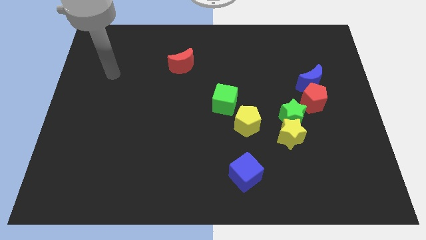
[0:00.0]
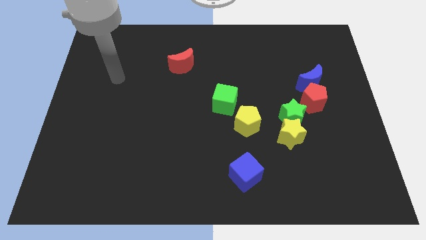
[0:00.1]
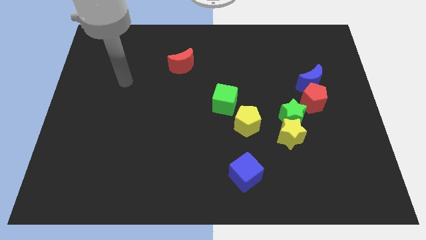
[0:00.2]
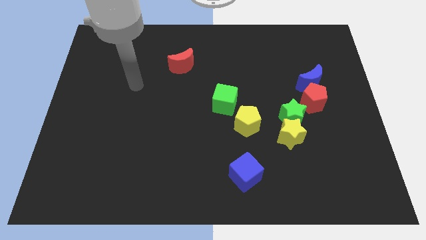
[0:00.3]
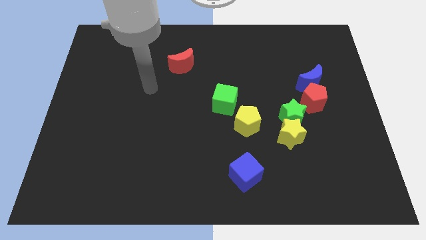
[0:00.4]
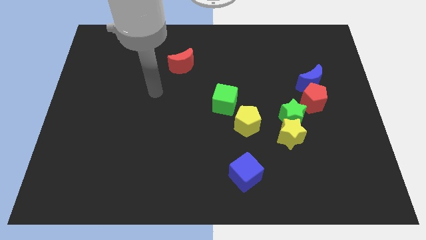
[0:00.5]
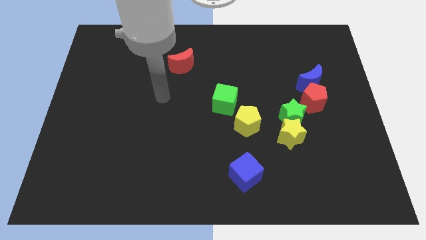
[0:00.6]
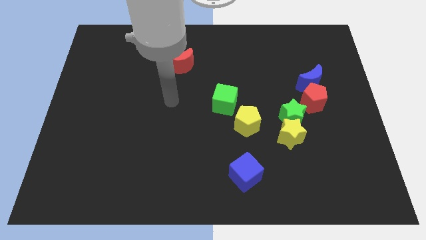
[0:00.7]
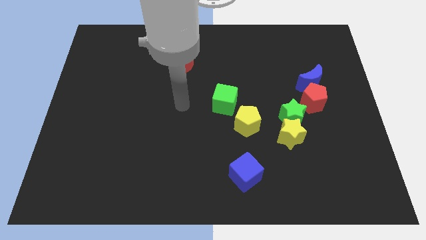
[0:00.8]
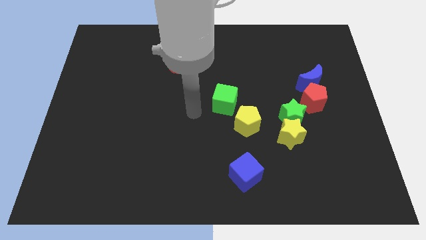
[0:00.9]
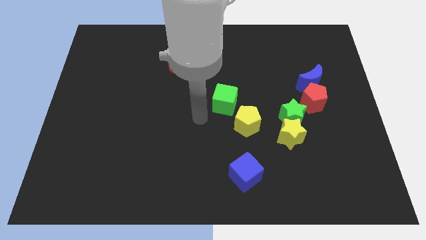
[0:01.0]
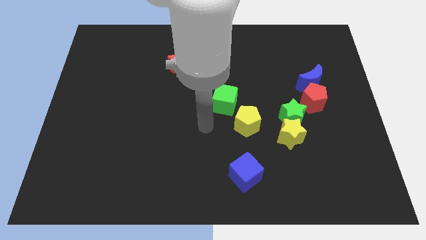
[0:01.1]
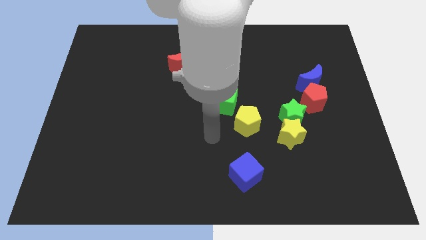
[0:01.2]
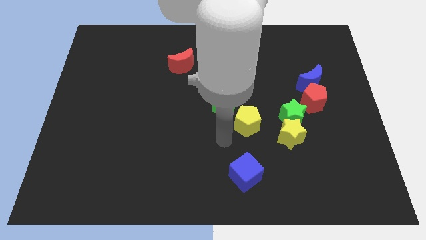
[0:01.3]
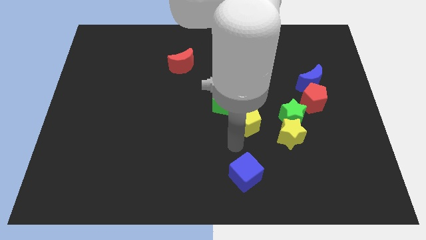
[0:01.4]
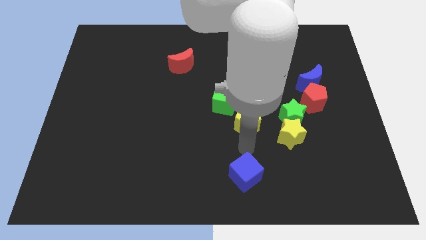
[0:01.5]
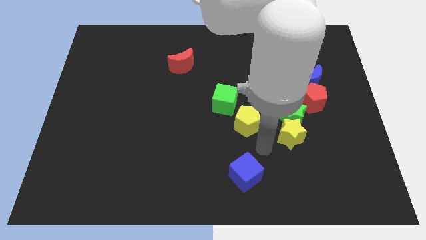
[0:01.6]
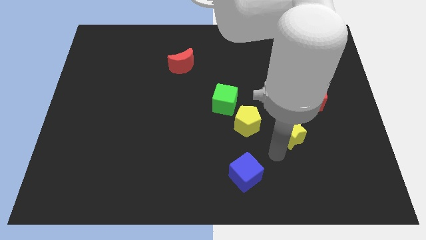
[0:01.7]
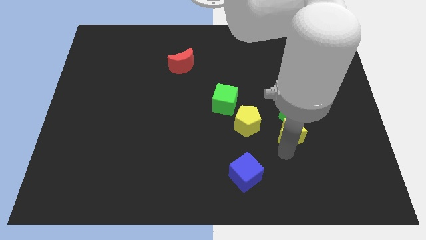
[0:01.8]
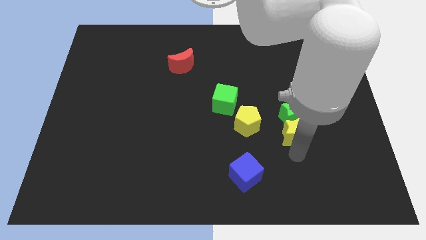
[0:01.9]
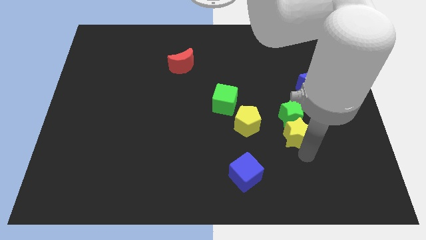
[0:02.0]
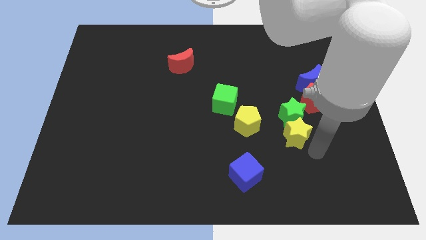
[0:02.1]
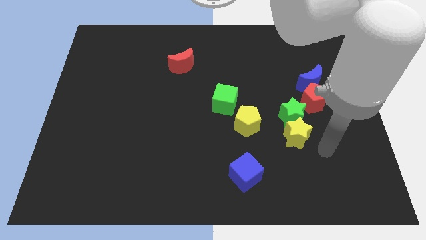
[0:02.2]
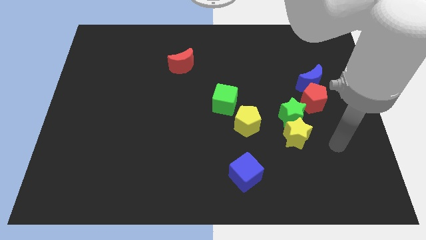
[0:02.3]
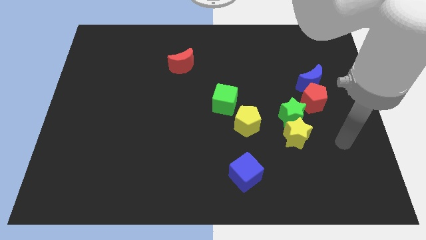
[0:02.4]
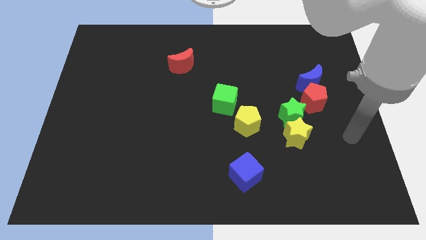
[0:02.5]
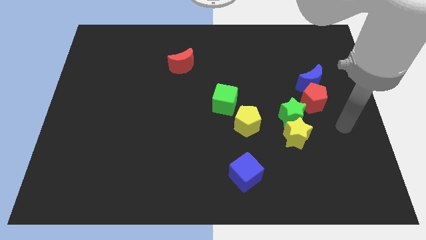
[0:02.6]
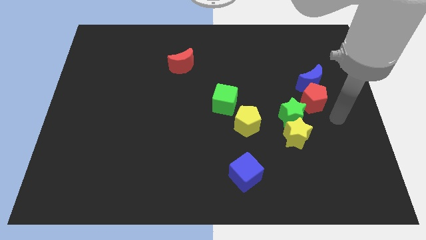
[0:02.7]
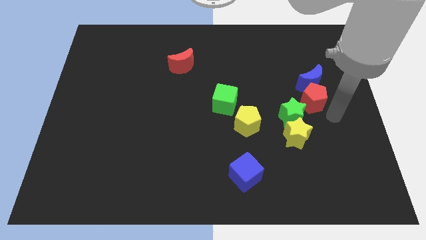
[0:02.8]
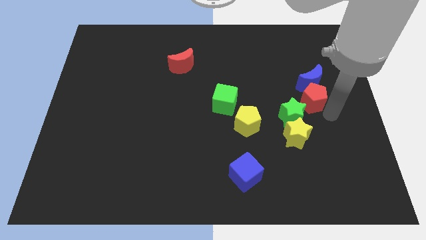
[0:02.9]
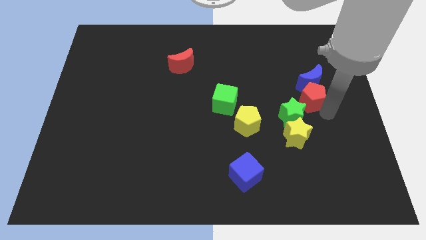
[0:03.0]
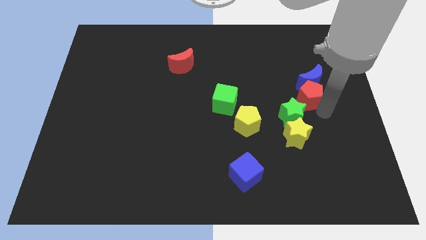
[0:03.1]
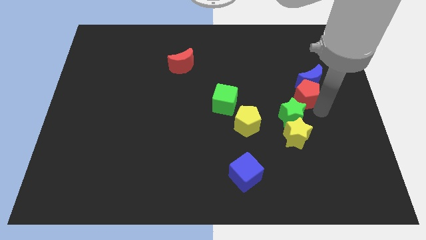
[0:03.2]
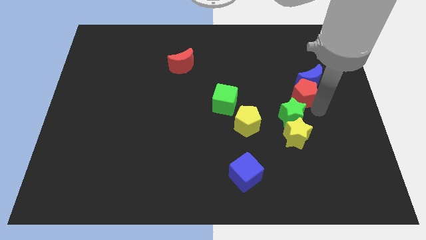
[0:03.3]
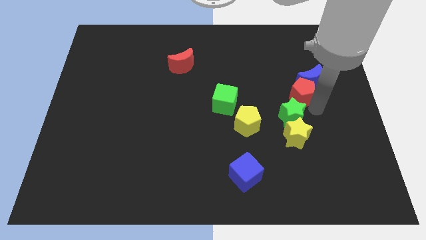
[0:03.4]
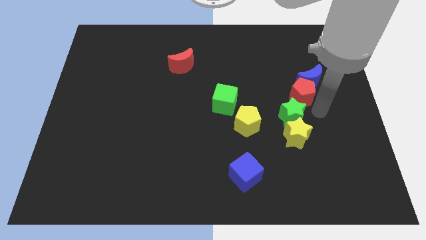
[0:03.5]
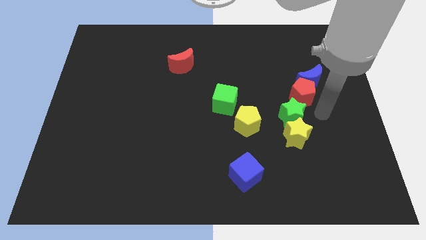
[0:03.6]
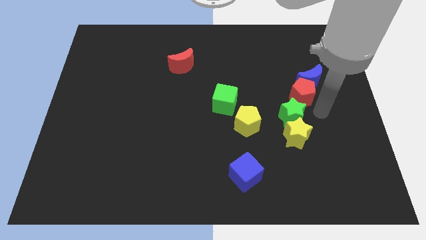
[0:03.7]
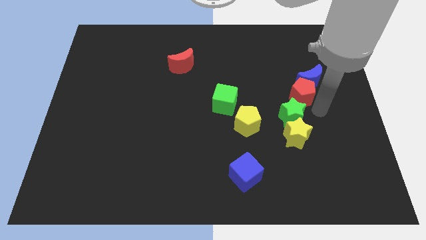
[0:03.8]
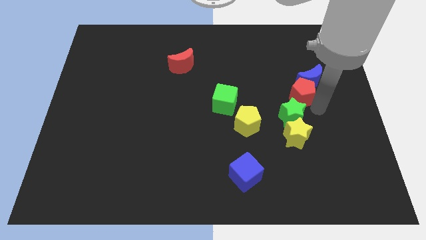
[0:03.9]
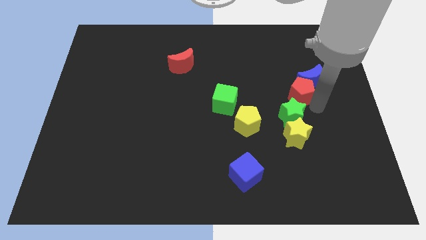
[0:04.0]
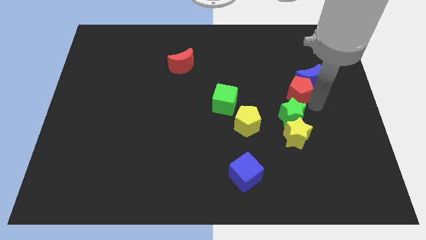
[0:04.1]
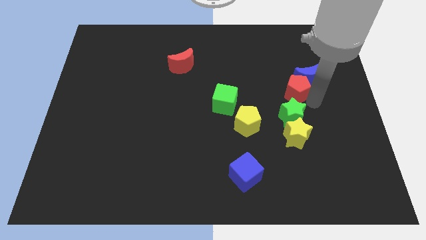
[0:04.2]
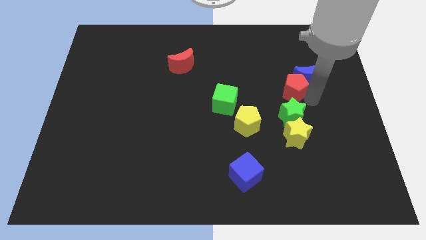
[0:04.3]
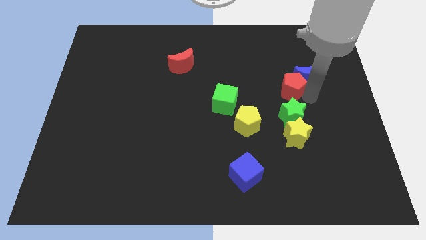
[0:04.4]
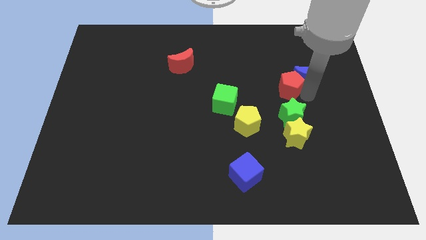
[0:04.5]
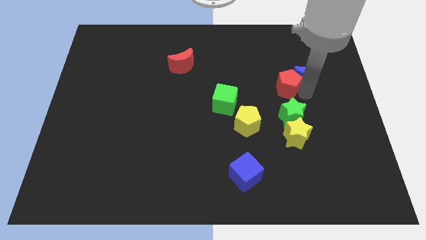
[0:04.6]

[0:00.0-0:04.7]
slightly slide the red pentagon up and left

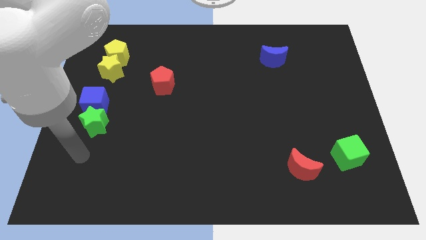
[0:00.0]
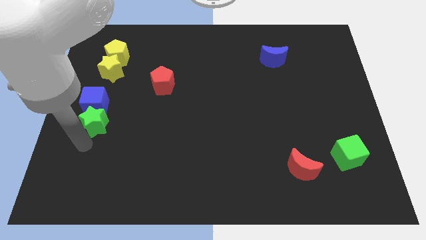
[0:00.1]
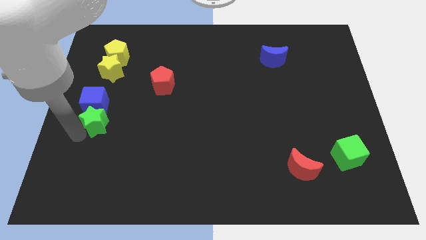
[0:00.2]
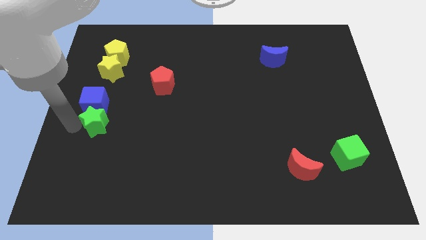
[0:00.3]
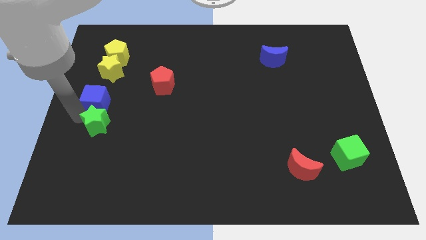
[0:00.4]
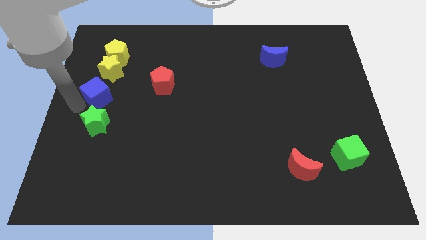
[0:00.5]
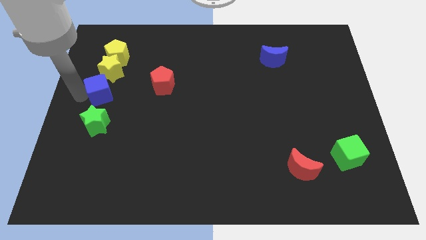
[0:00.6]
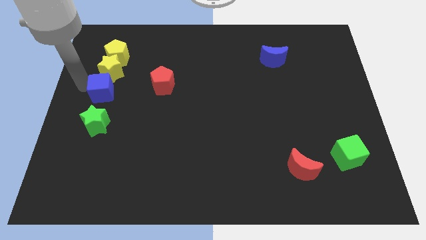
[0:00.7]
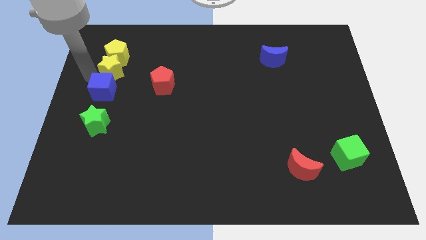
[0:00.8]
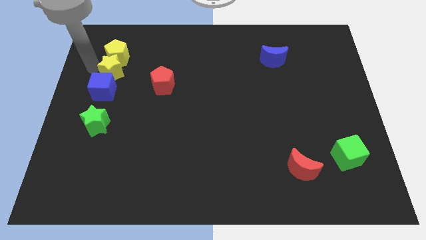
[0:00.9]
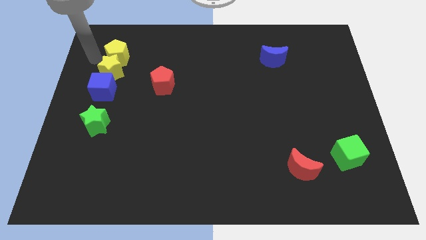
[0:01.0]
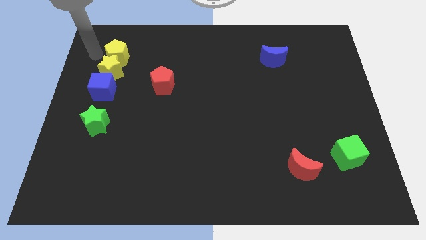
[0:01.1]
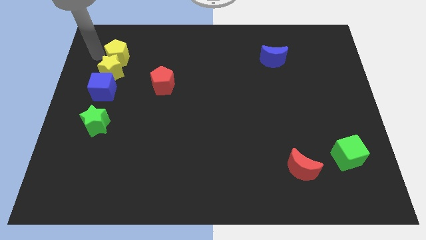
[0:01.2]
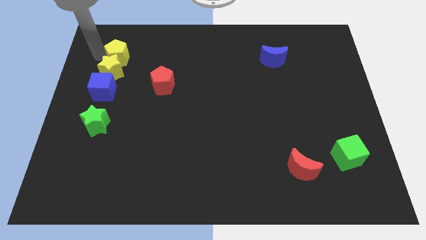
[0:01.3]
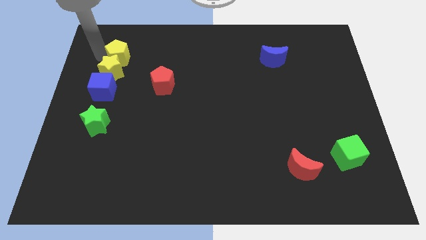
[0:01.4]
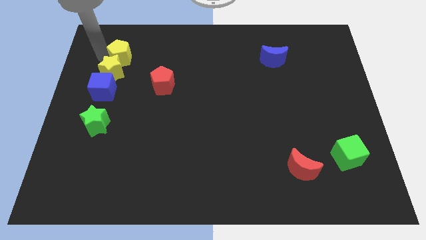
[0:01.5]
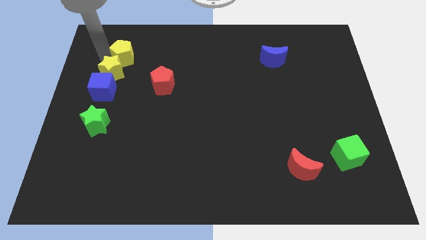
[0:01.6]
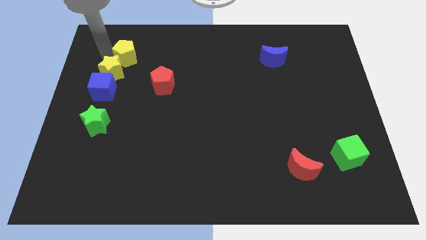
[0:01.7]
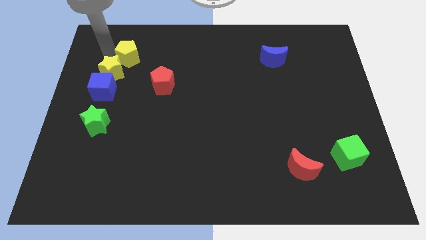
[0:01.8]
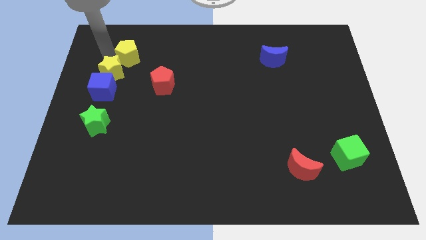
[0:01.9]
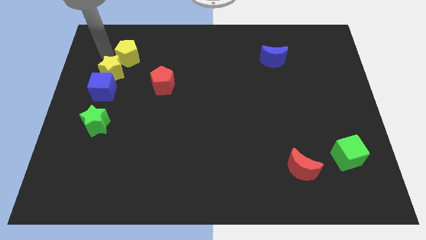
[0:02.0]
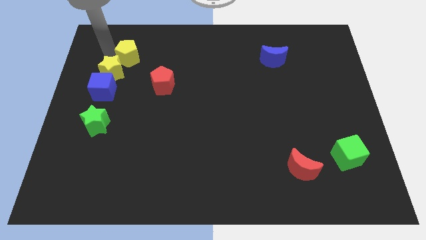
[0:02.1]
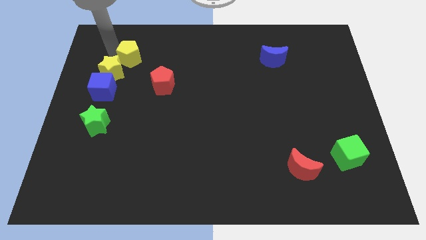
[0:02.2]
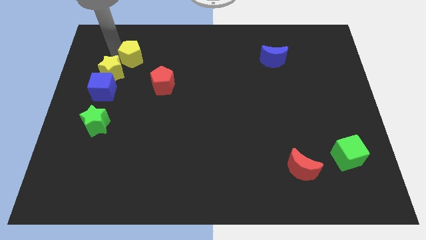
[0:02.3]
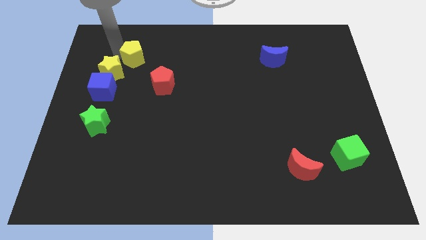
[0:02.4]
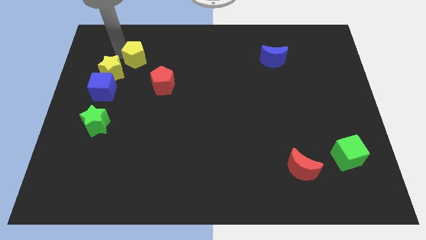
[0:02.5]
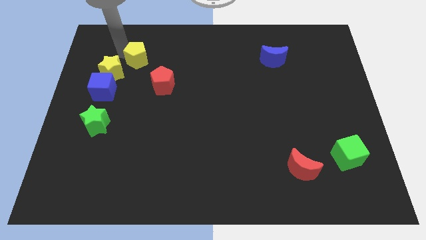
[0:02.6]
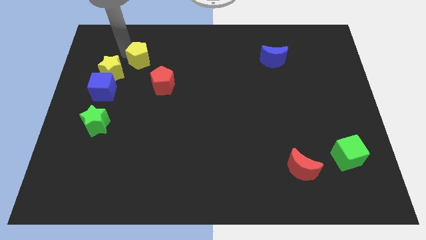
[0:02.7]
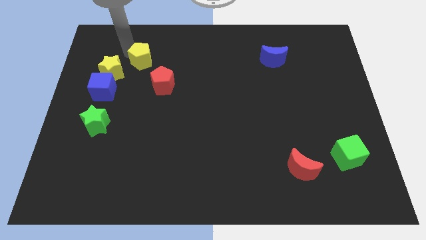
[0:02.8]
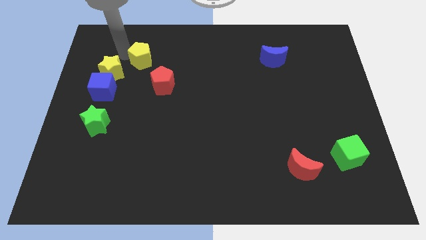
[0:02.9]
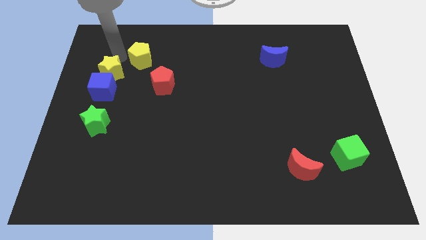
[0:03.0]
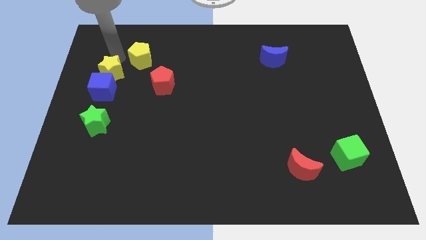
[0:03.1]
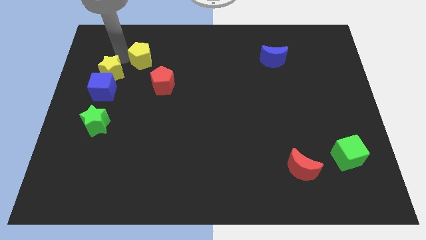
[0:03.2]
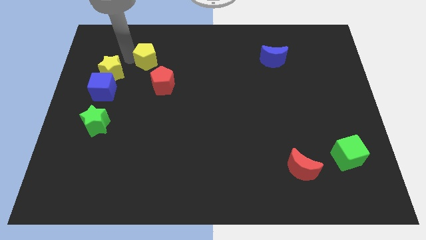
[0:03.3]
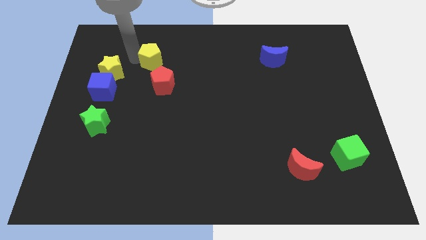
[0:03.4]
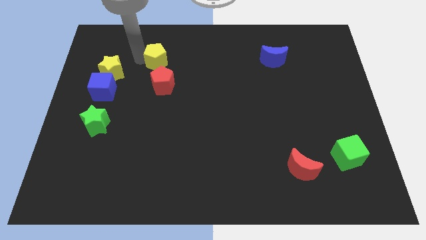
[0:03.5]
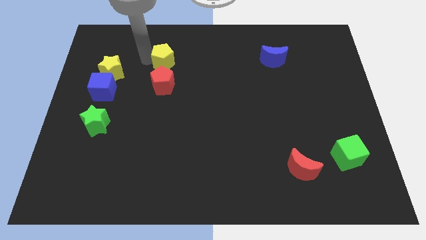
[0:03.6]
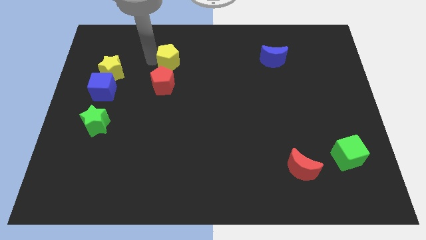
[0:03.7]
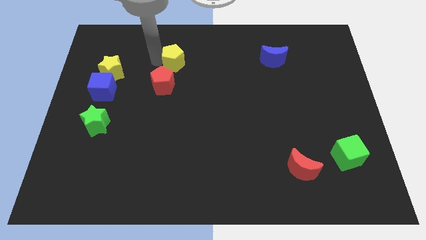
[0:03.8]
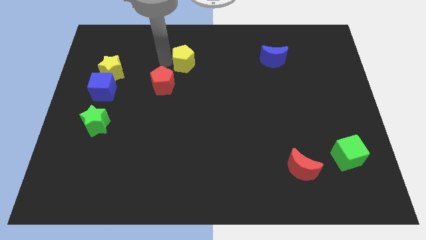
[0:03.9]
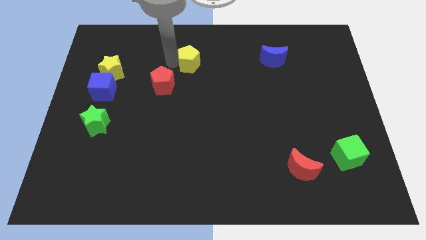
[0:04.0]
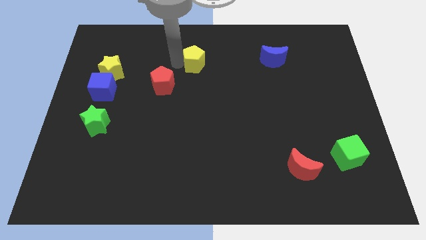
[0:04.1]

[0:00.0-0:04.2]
push the yellow pentagon right
